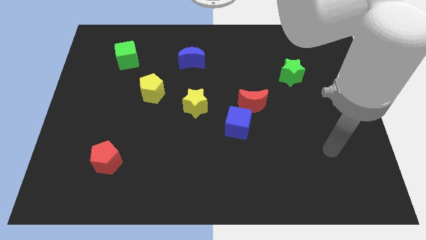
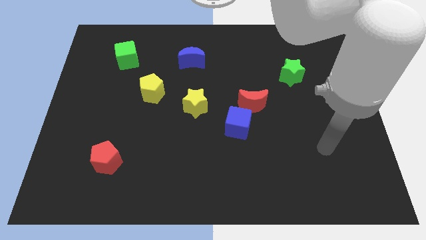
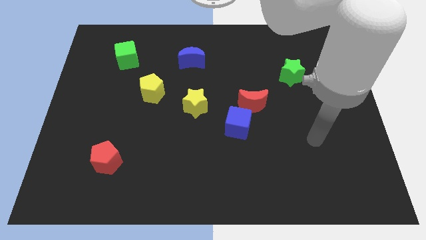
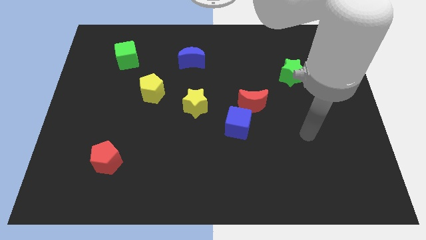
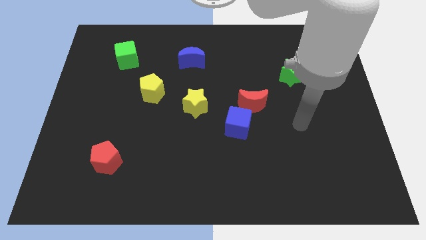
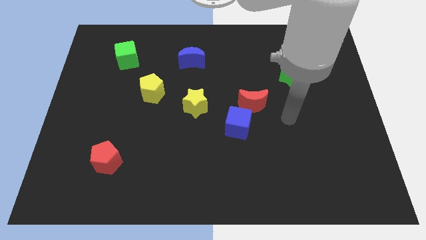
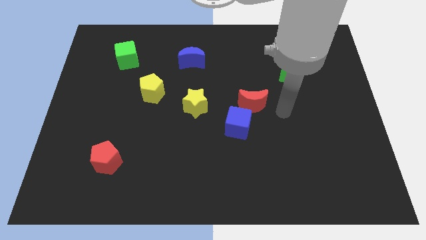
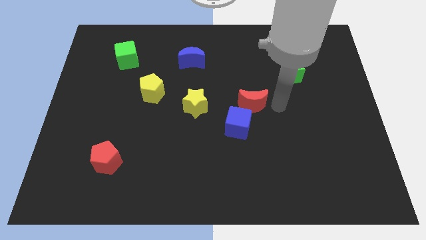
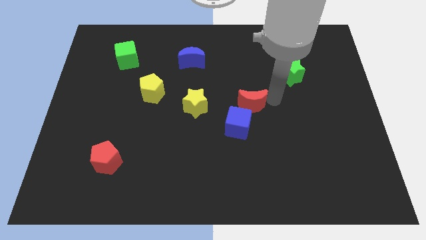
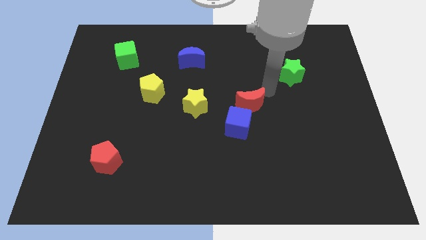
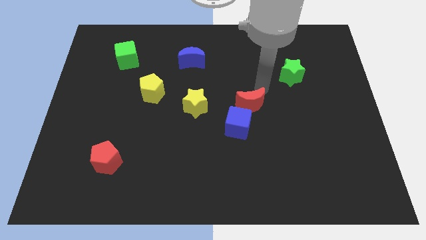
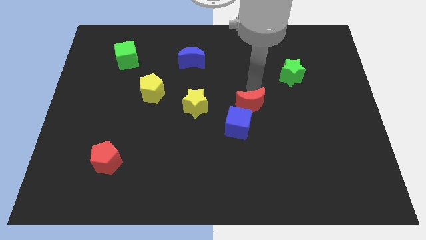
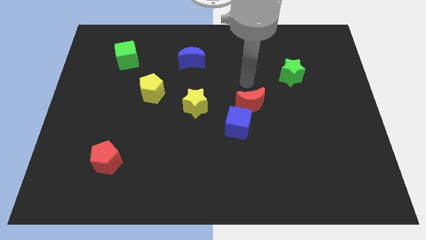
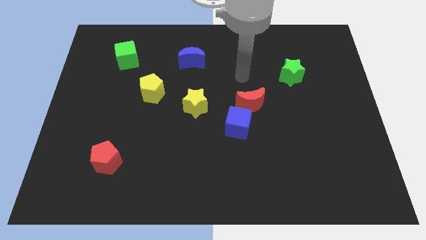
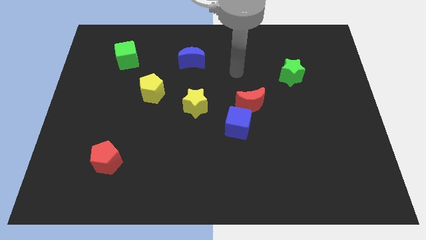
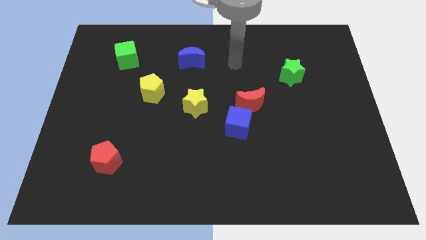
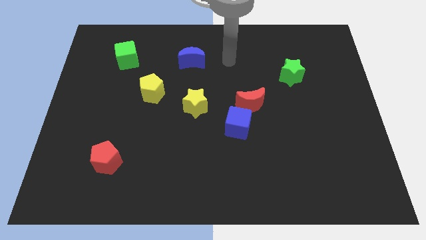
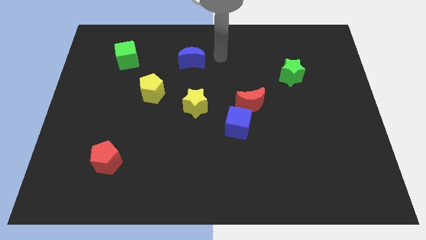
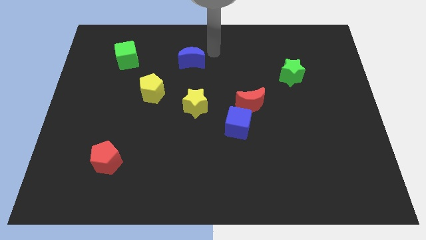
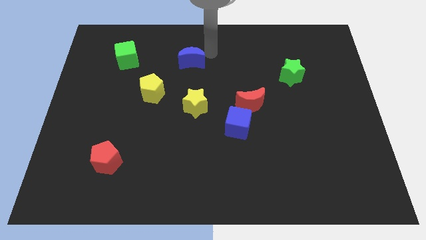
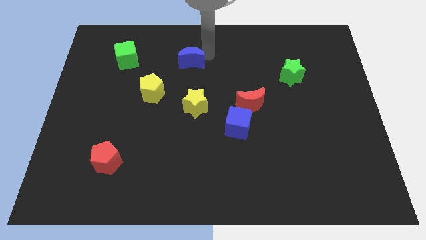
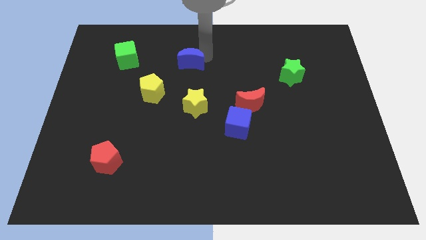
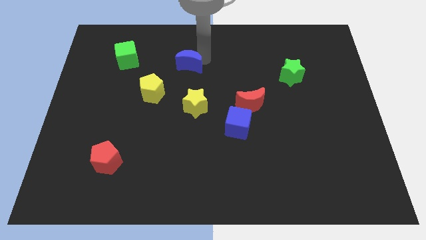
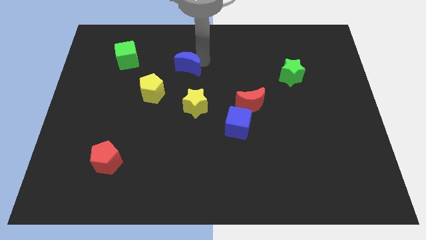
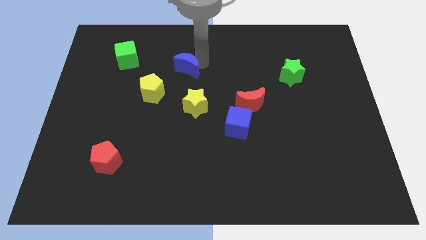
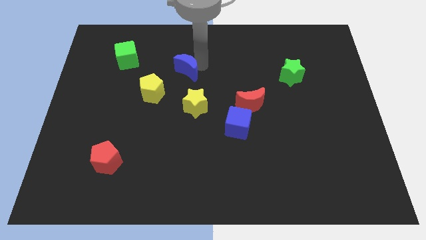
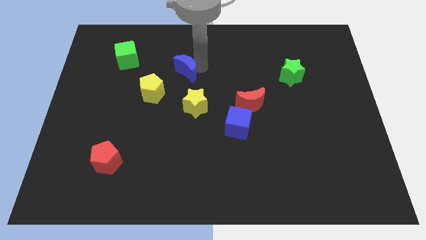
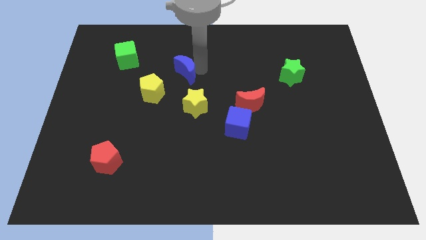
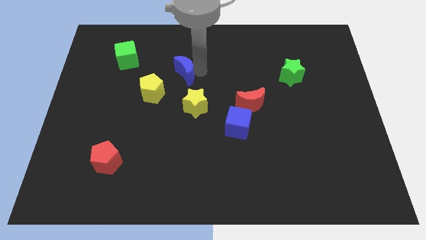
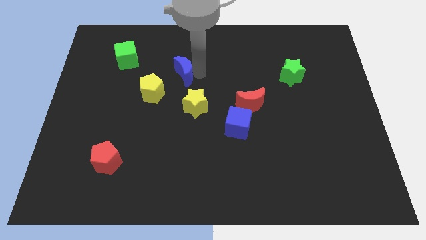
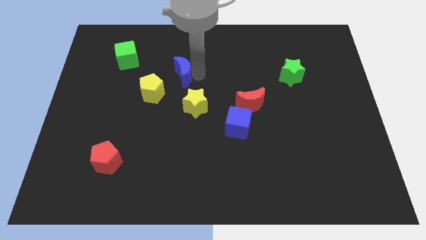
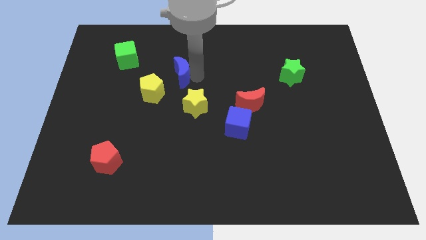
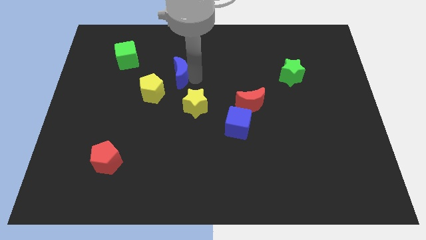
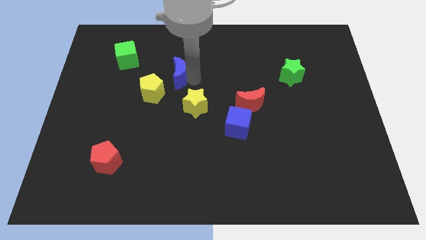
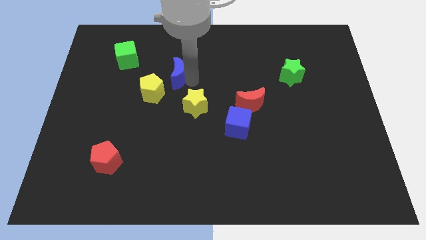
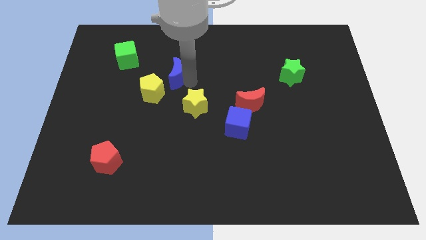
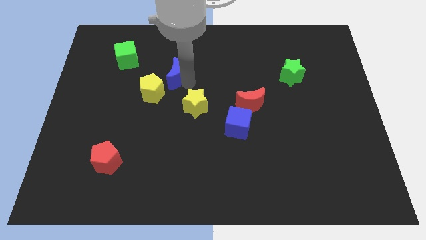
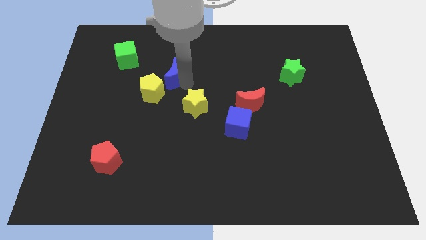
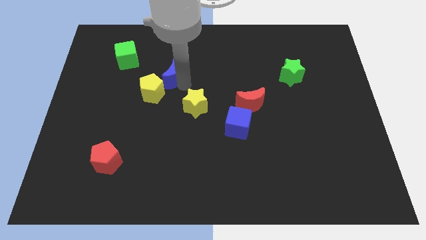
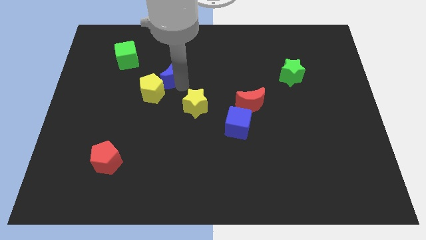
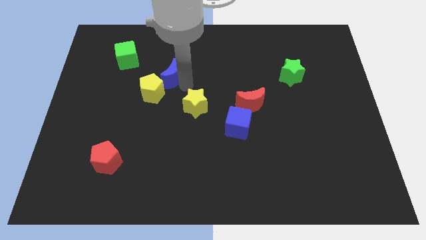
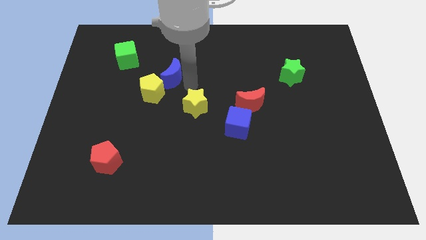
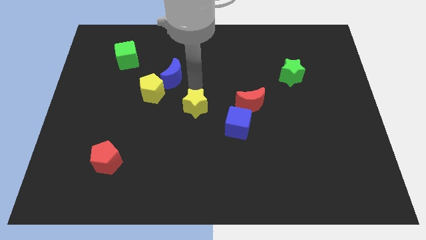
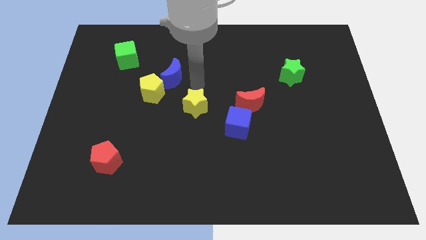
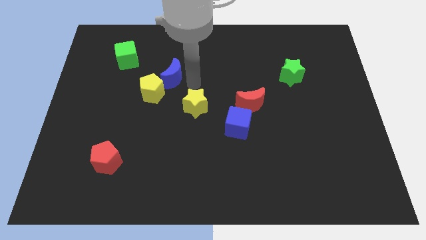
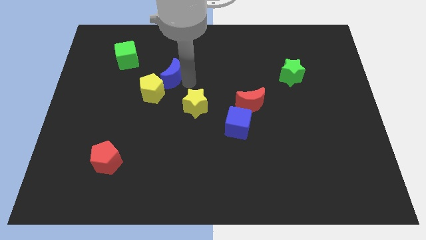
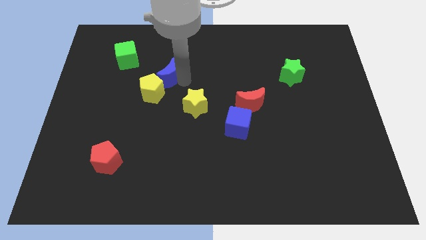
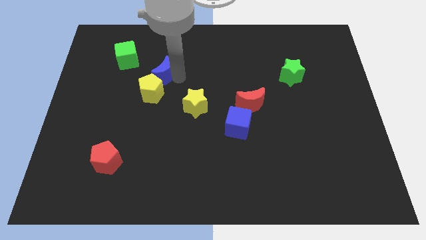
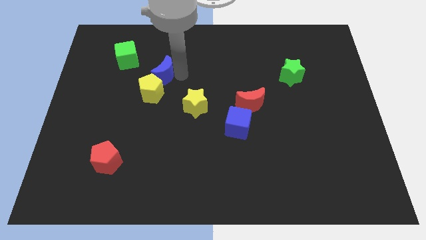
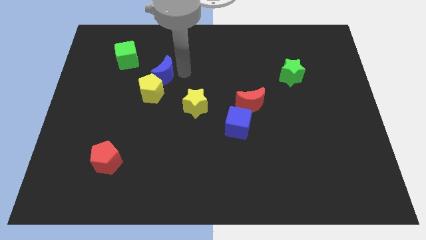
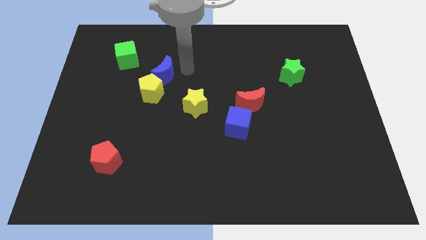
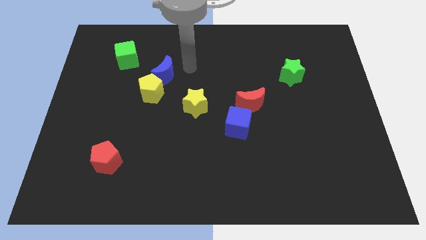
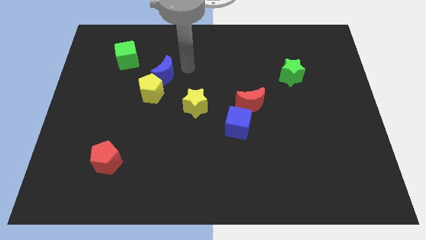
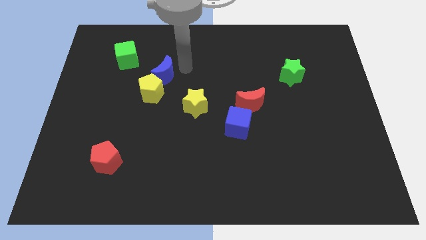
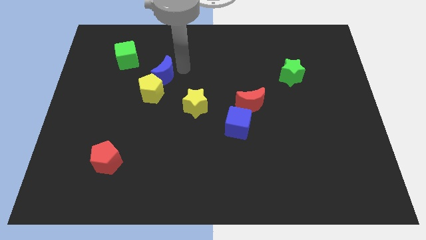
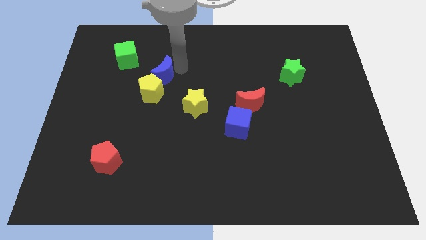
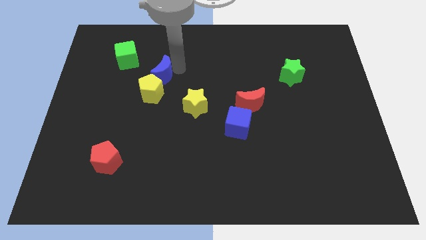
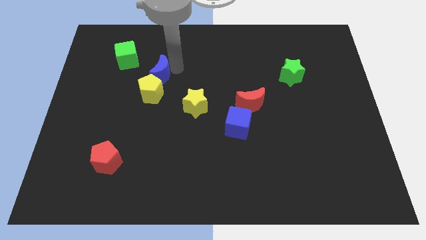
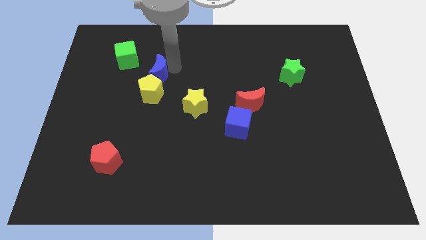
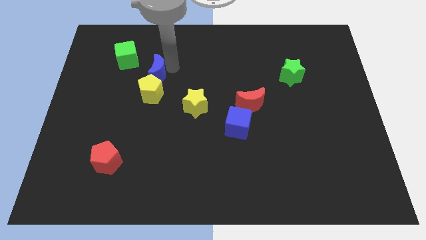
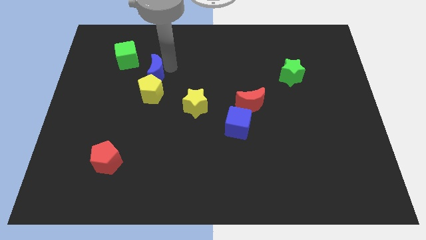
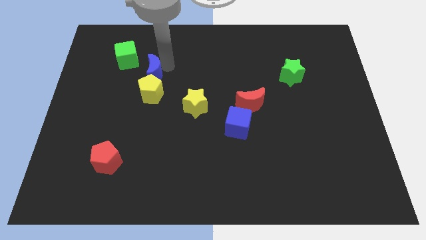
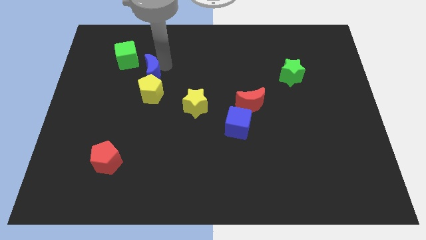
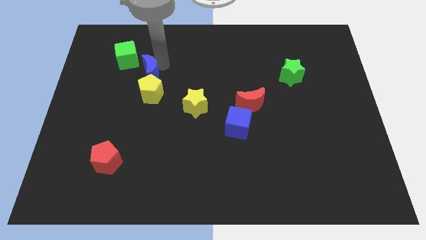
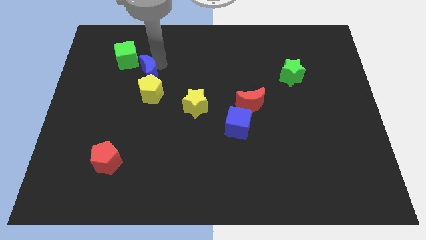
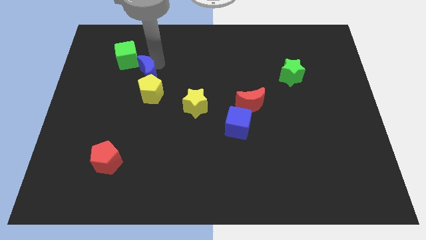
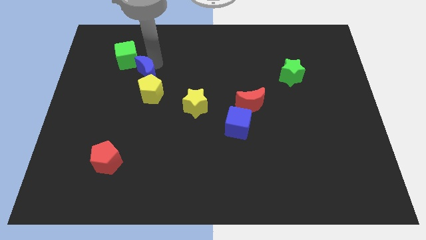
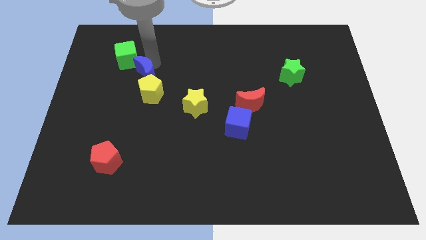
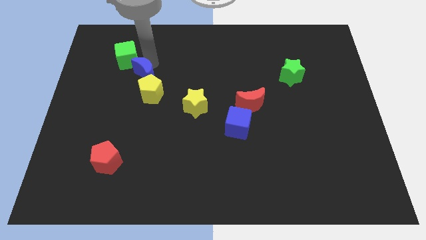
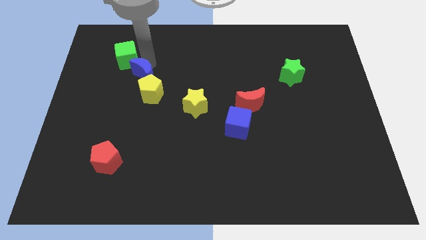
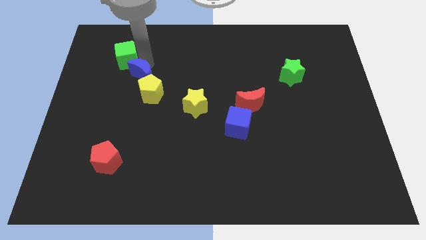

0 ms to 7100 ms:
put the blue moon to the bottom of the green cube
